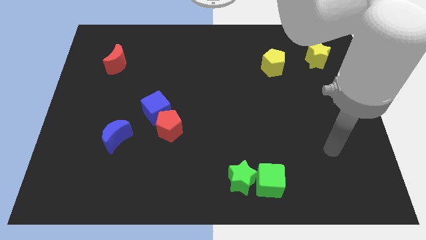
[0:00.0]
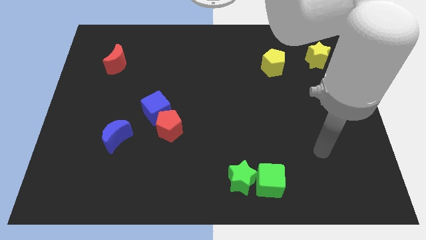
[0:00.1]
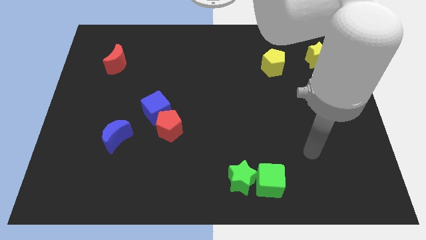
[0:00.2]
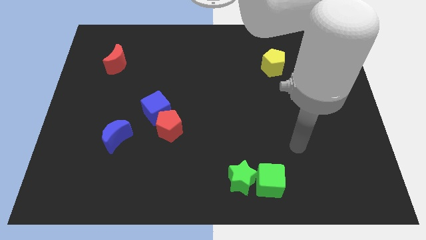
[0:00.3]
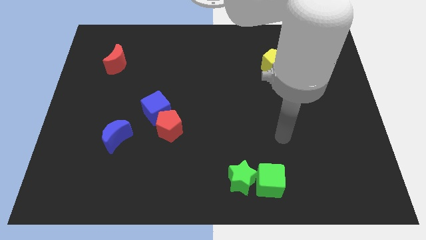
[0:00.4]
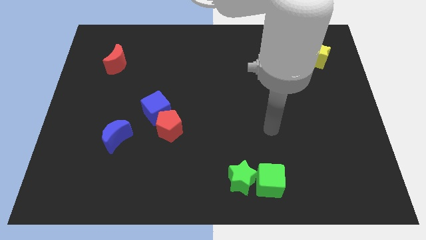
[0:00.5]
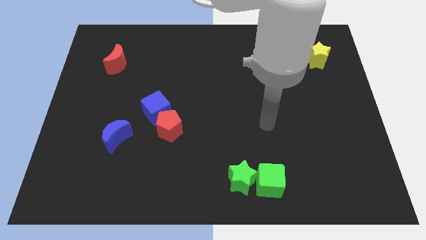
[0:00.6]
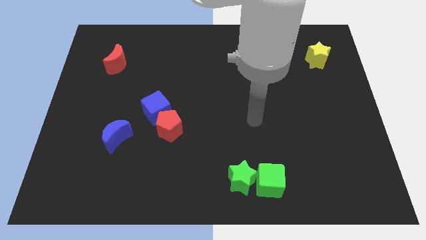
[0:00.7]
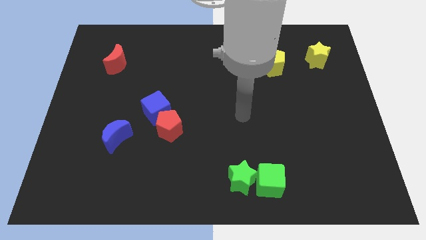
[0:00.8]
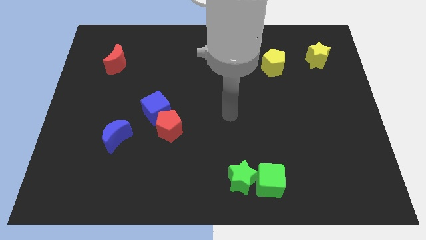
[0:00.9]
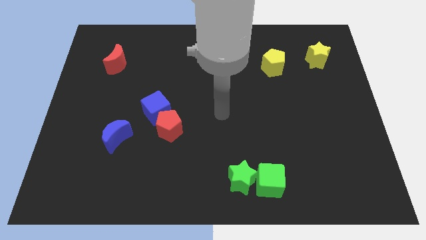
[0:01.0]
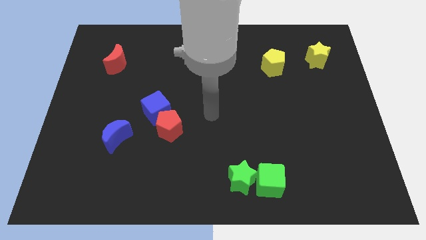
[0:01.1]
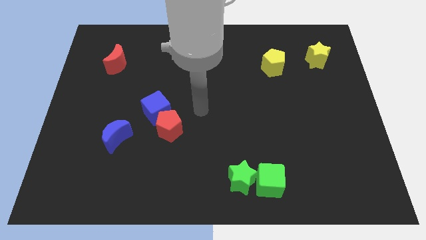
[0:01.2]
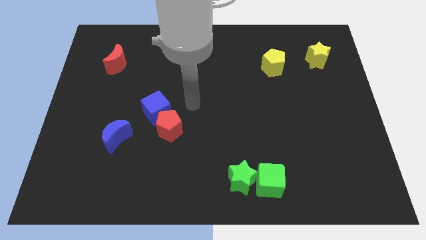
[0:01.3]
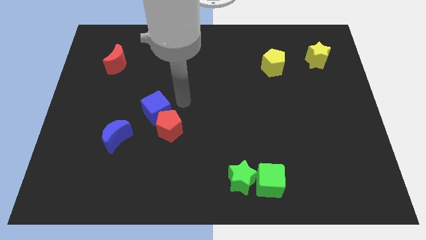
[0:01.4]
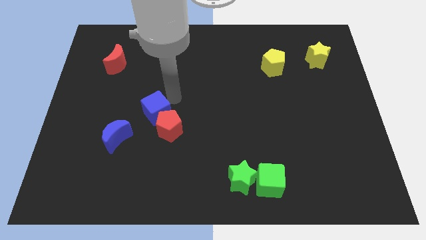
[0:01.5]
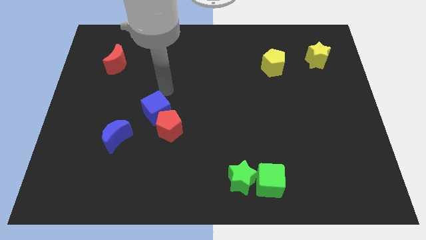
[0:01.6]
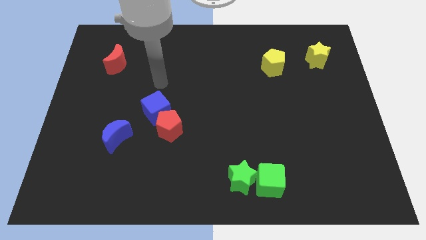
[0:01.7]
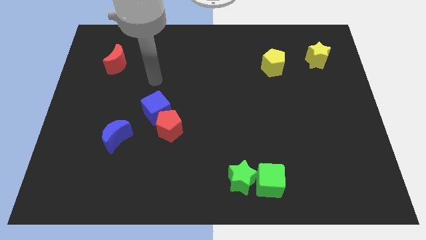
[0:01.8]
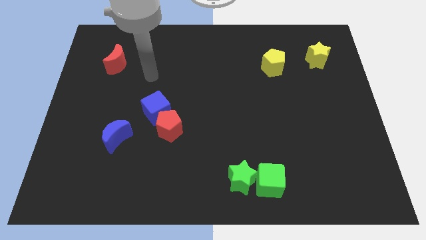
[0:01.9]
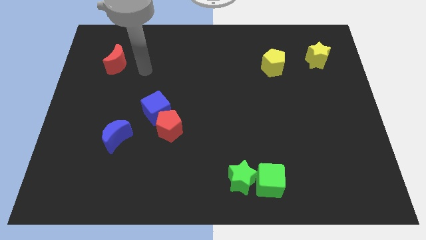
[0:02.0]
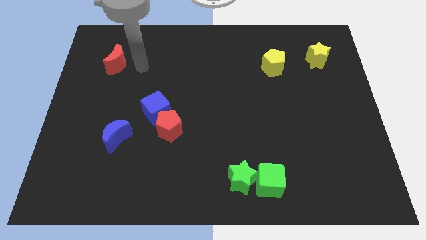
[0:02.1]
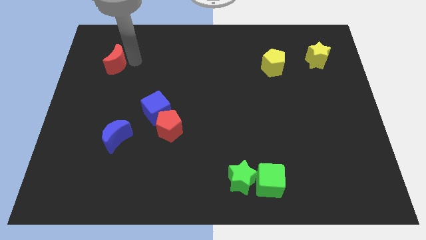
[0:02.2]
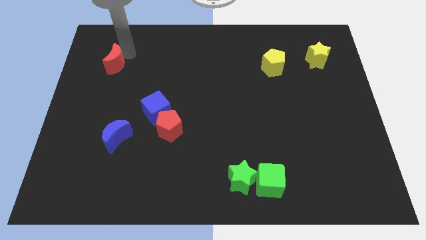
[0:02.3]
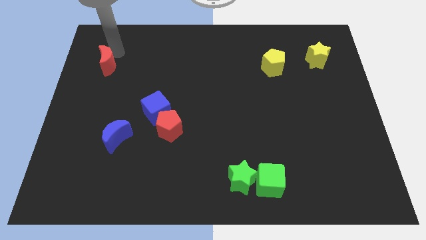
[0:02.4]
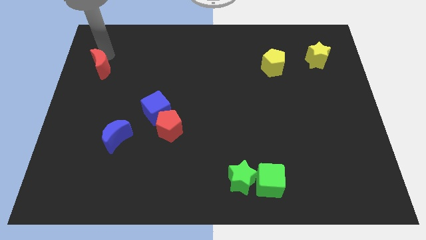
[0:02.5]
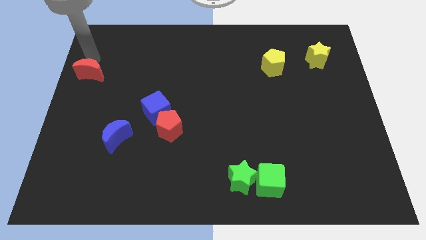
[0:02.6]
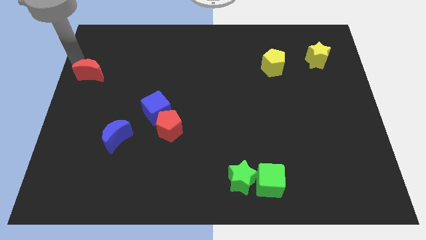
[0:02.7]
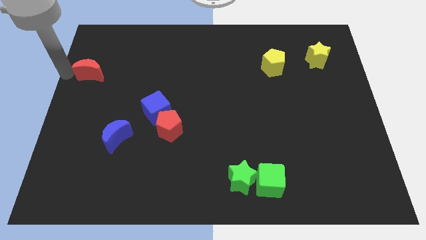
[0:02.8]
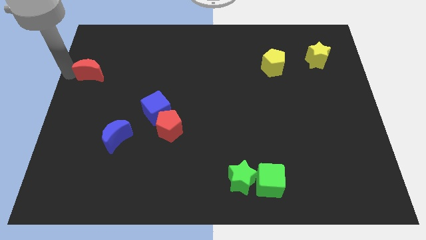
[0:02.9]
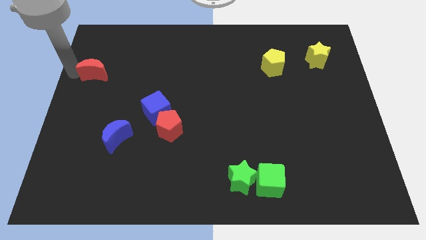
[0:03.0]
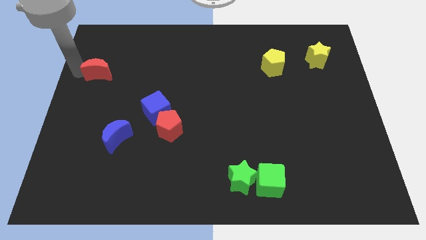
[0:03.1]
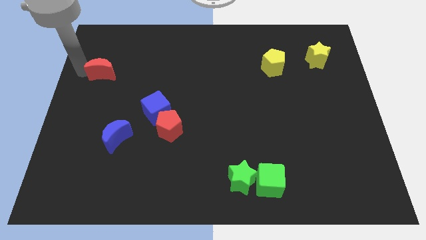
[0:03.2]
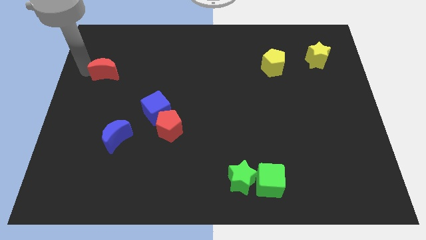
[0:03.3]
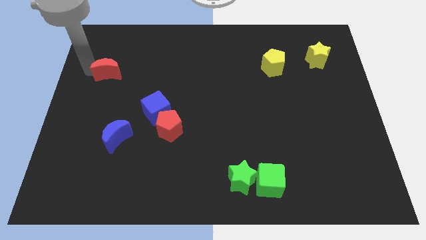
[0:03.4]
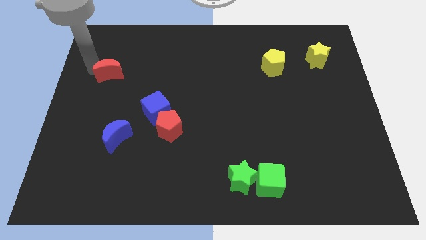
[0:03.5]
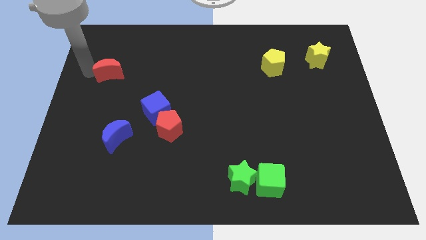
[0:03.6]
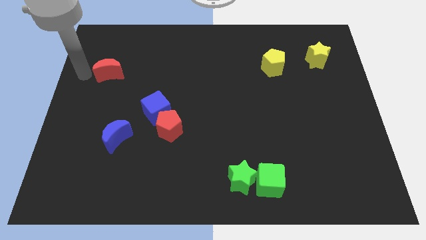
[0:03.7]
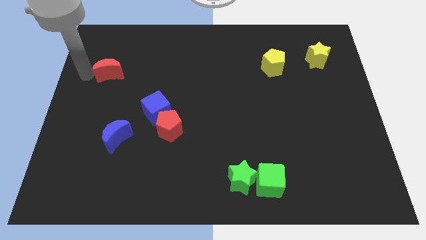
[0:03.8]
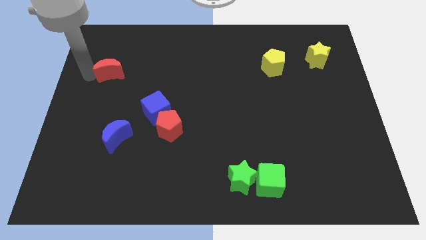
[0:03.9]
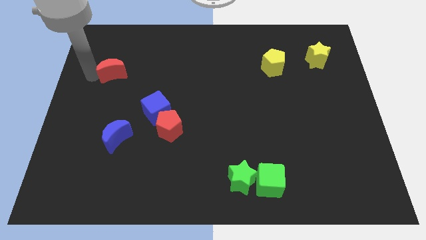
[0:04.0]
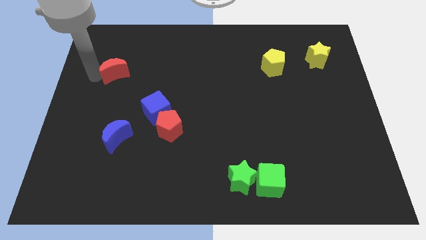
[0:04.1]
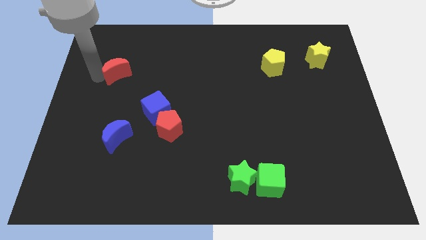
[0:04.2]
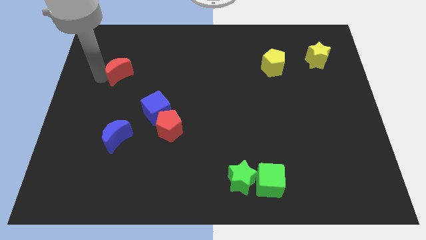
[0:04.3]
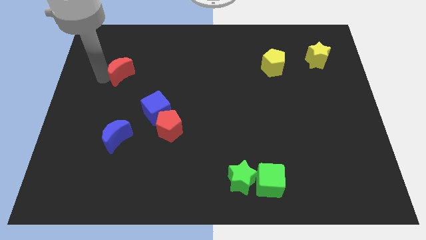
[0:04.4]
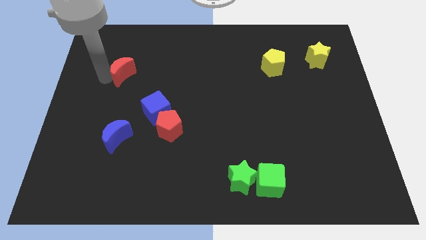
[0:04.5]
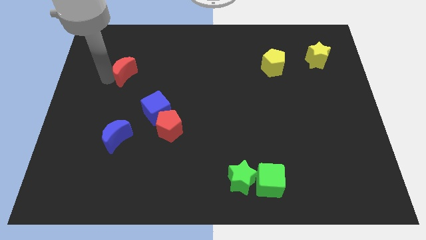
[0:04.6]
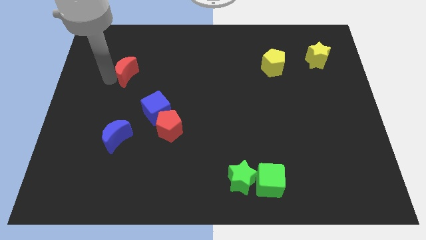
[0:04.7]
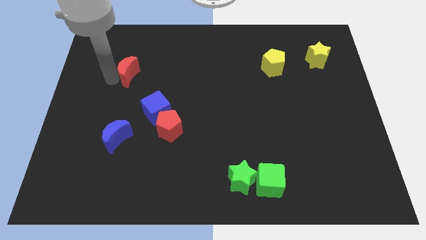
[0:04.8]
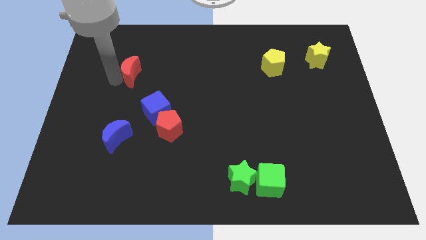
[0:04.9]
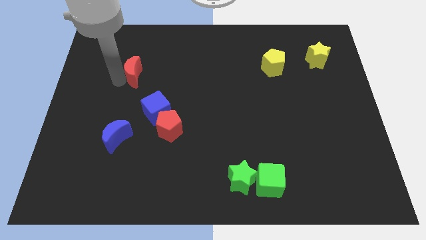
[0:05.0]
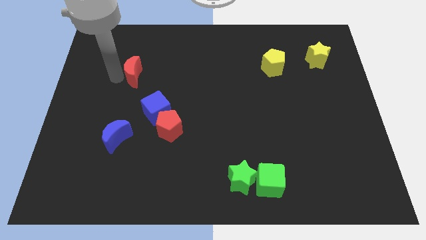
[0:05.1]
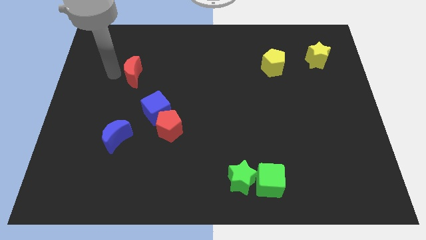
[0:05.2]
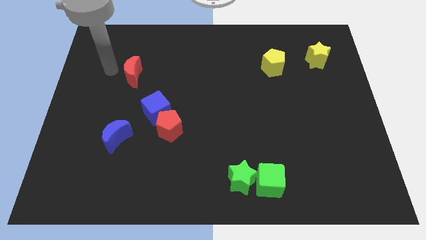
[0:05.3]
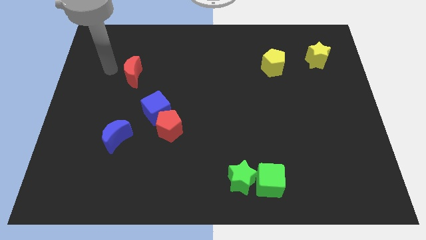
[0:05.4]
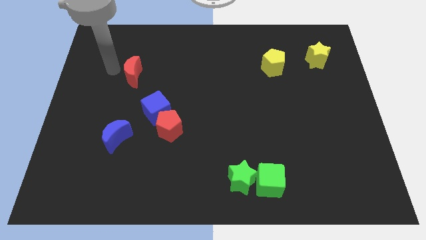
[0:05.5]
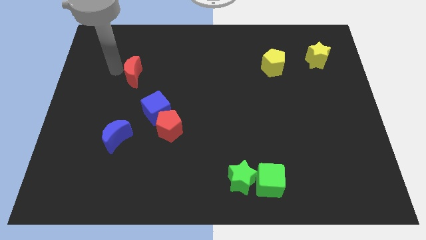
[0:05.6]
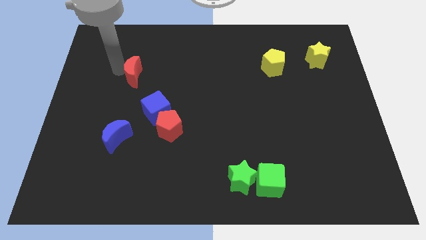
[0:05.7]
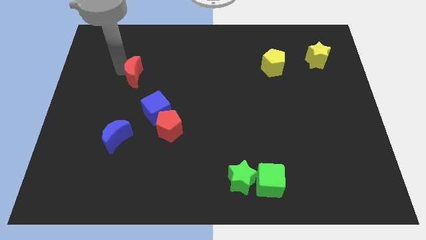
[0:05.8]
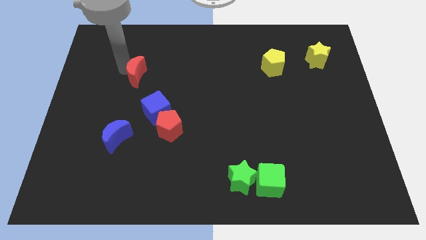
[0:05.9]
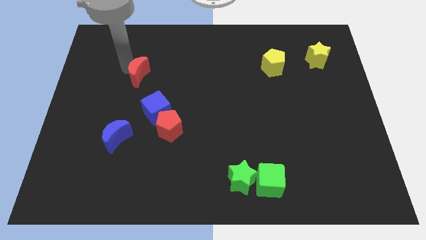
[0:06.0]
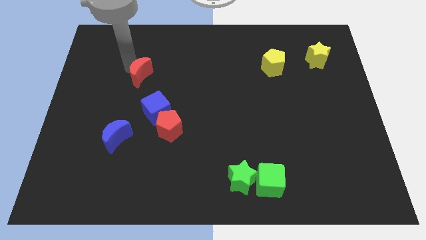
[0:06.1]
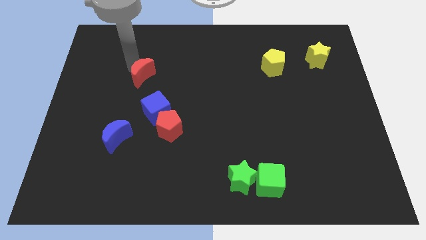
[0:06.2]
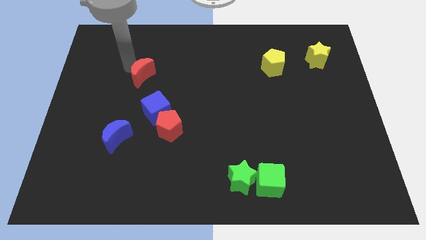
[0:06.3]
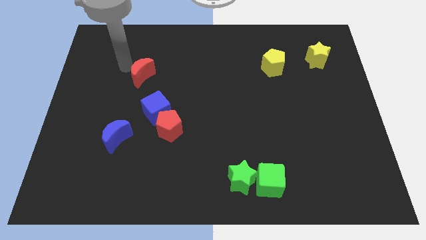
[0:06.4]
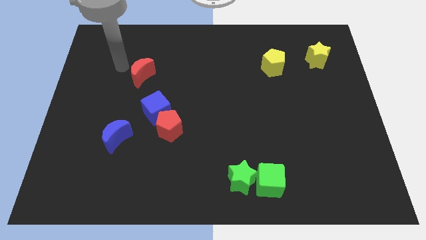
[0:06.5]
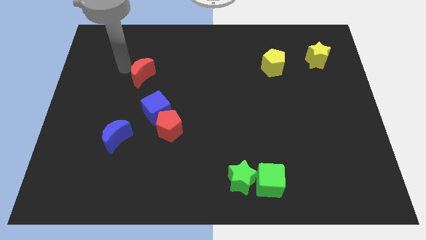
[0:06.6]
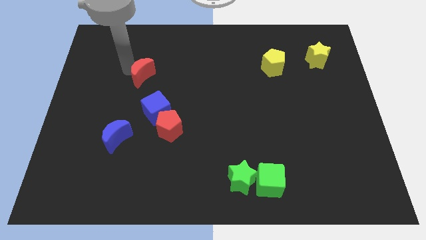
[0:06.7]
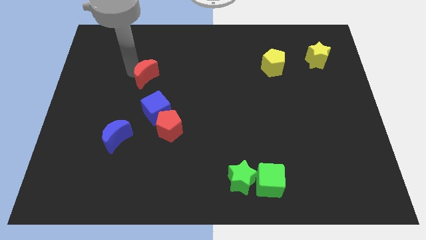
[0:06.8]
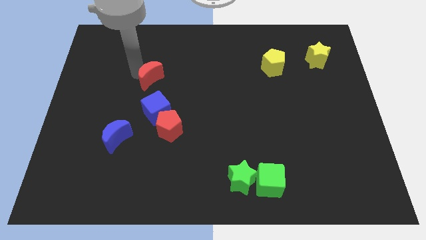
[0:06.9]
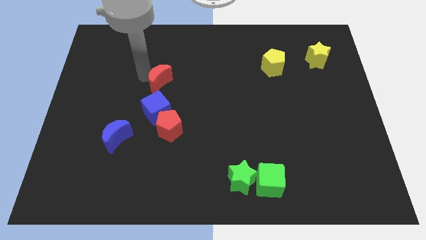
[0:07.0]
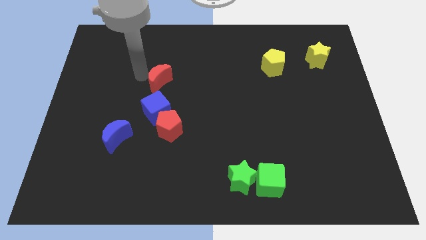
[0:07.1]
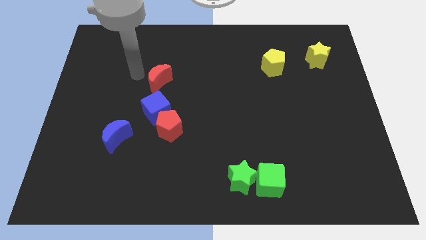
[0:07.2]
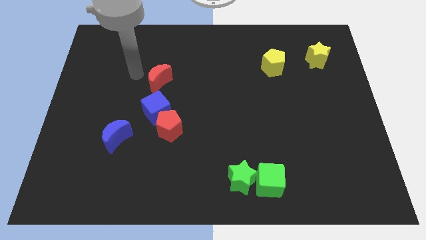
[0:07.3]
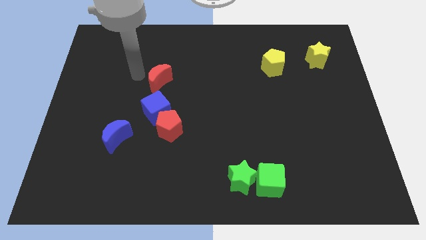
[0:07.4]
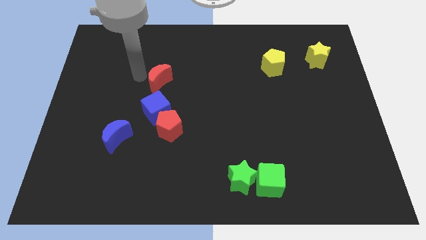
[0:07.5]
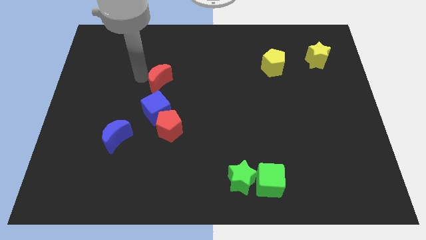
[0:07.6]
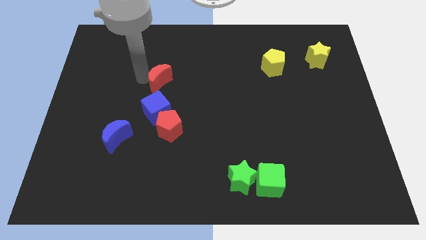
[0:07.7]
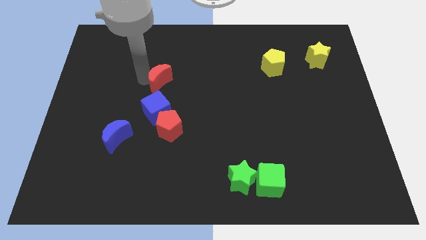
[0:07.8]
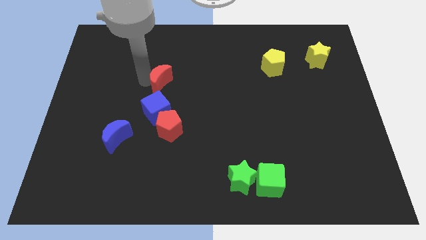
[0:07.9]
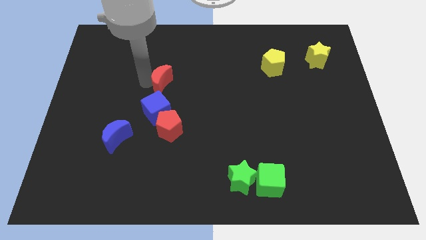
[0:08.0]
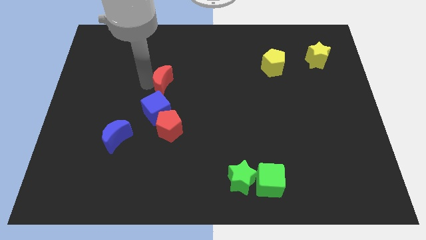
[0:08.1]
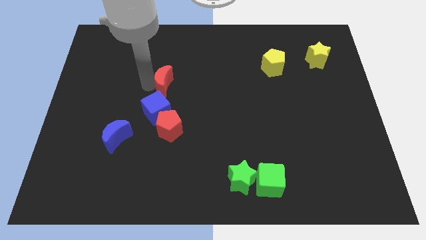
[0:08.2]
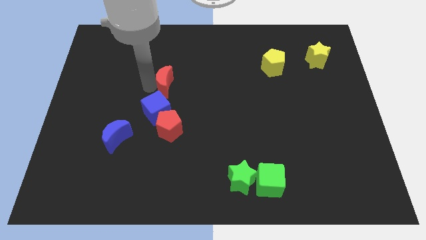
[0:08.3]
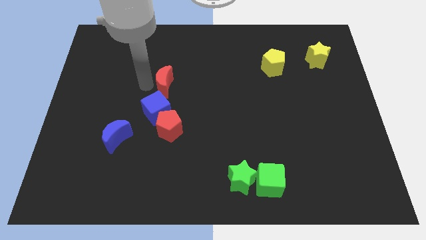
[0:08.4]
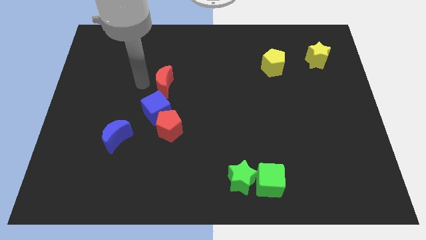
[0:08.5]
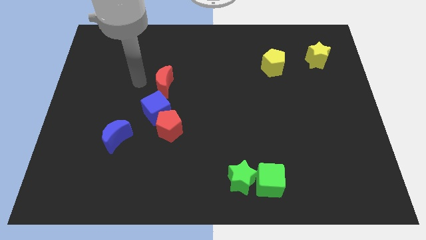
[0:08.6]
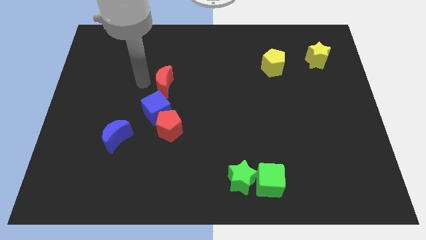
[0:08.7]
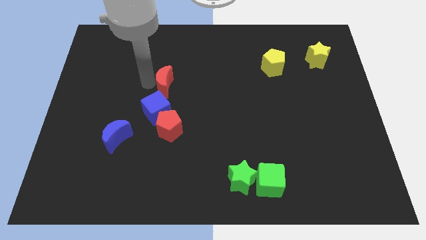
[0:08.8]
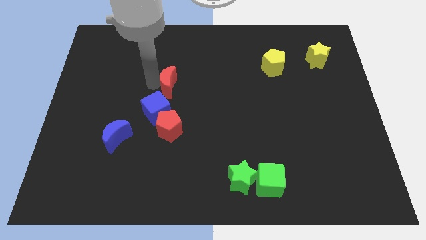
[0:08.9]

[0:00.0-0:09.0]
push the red moon to the center of the board
